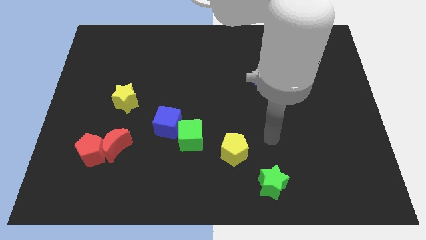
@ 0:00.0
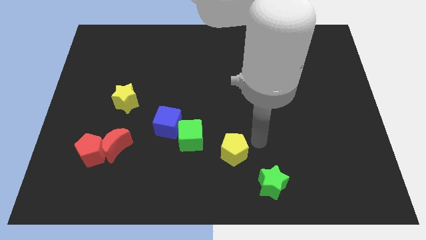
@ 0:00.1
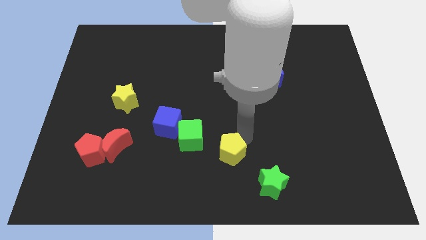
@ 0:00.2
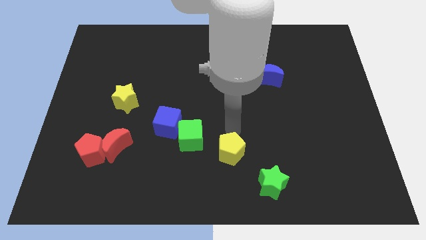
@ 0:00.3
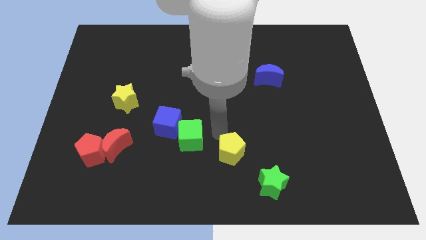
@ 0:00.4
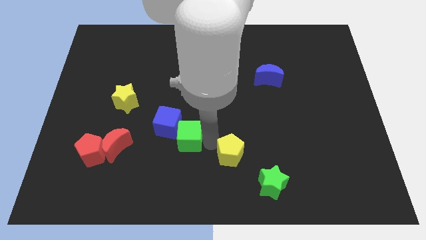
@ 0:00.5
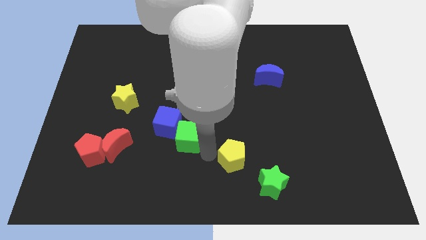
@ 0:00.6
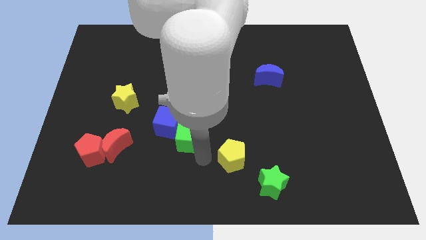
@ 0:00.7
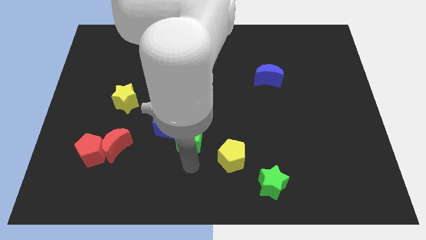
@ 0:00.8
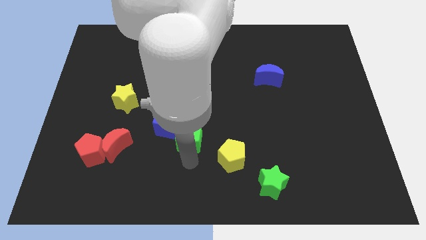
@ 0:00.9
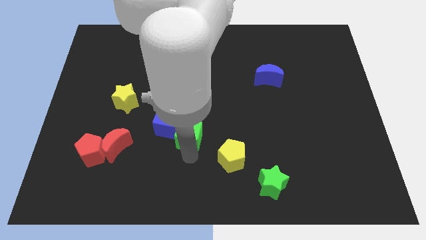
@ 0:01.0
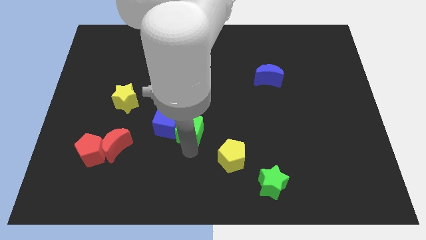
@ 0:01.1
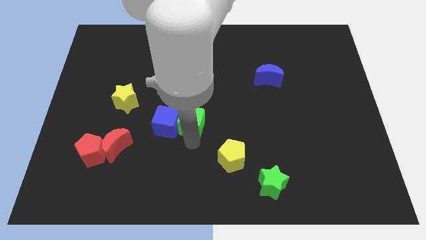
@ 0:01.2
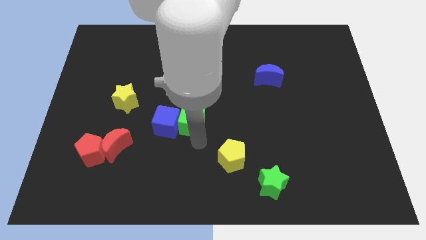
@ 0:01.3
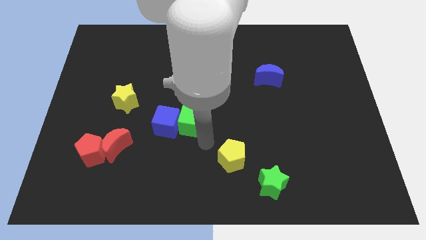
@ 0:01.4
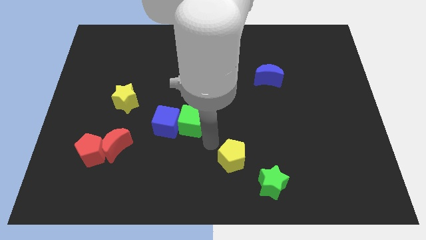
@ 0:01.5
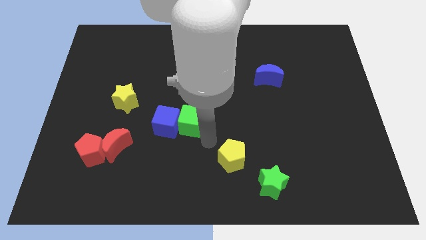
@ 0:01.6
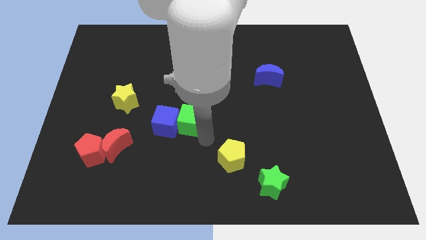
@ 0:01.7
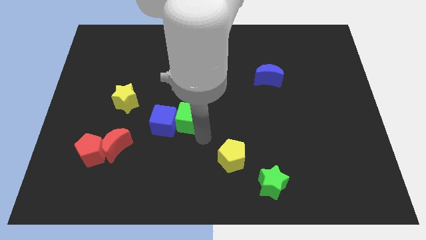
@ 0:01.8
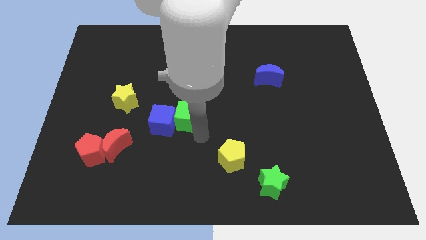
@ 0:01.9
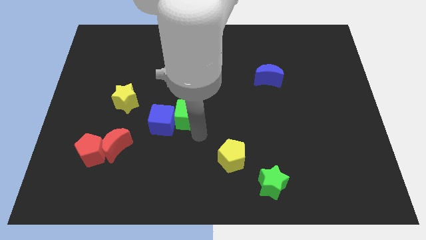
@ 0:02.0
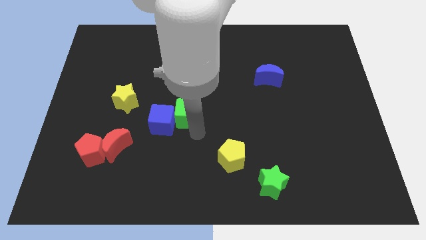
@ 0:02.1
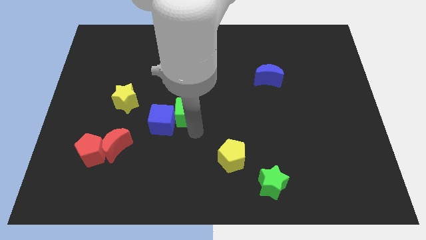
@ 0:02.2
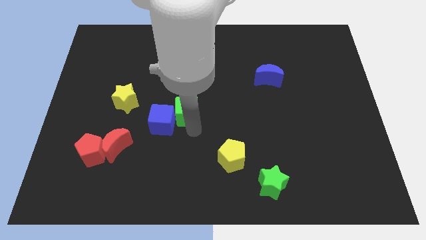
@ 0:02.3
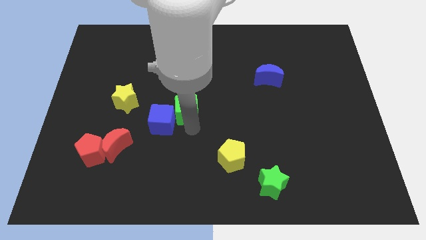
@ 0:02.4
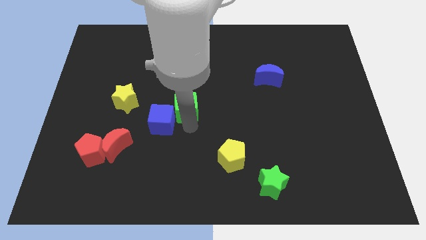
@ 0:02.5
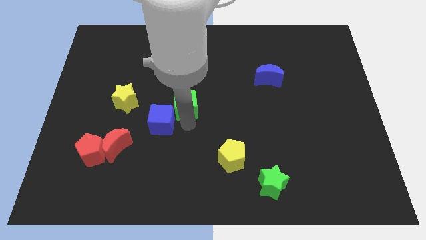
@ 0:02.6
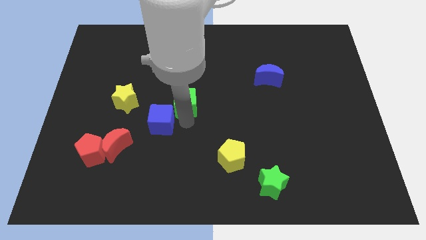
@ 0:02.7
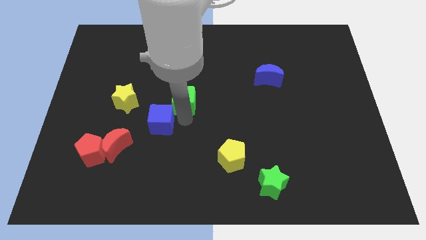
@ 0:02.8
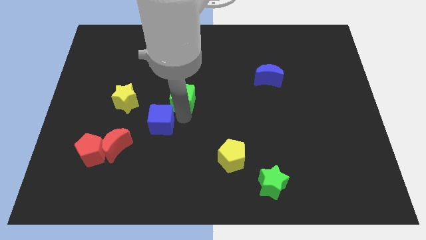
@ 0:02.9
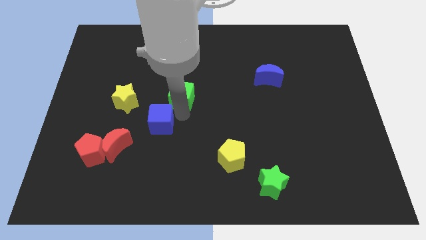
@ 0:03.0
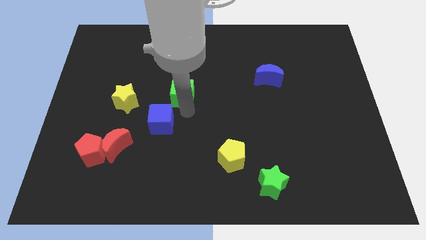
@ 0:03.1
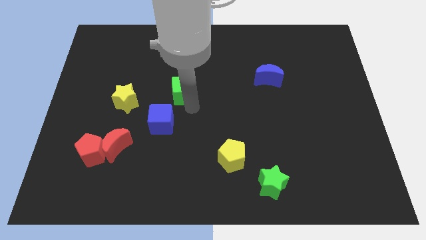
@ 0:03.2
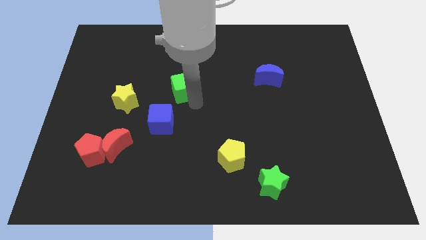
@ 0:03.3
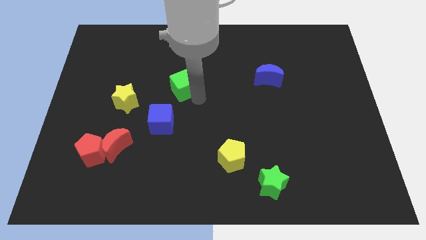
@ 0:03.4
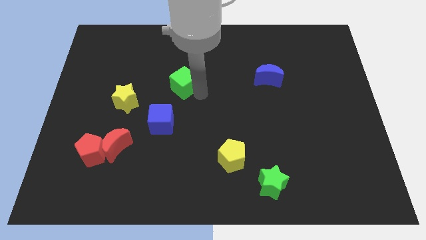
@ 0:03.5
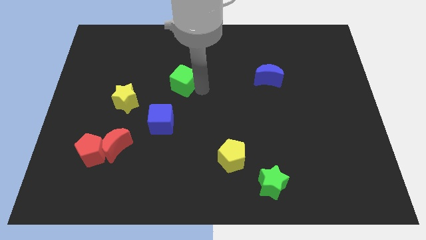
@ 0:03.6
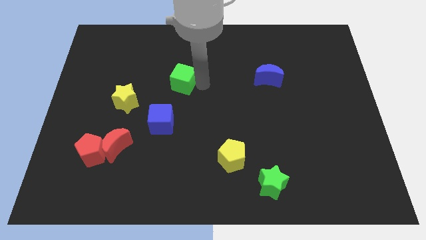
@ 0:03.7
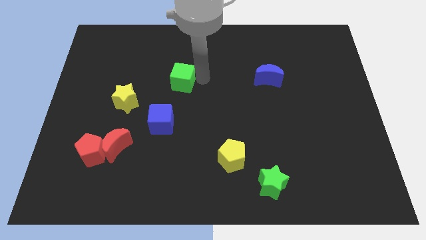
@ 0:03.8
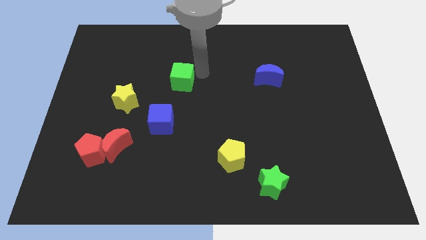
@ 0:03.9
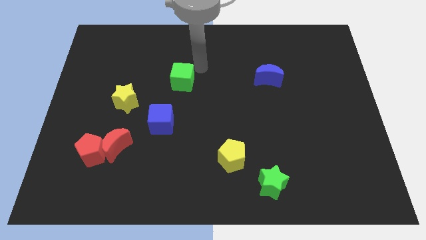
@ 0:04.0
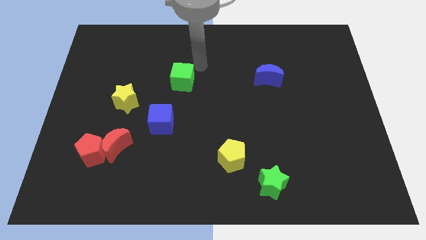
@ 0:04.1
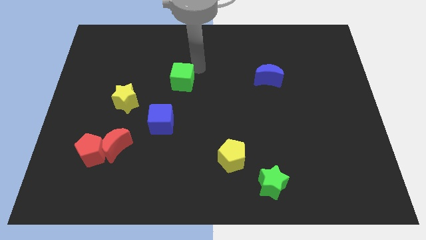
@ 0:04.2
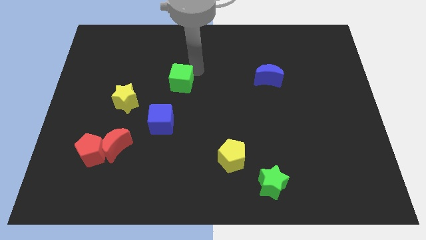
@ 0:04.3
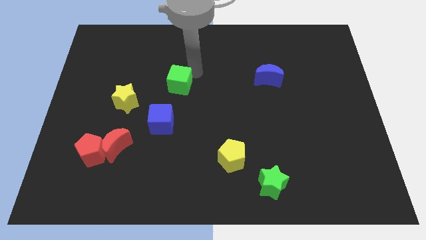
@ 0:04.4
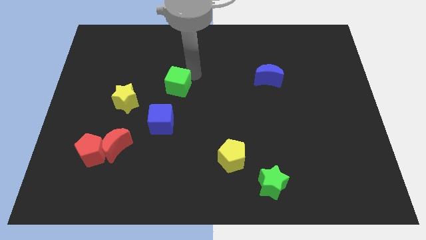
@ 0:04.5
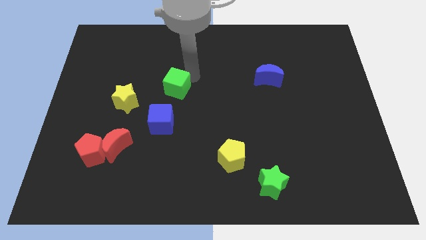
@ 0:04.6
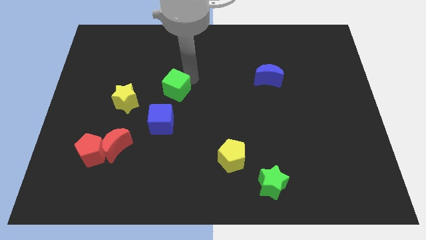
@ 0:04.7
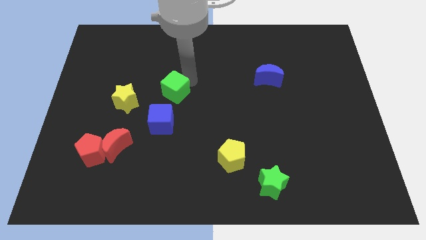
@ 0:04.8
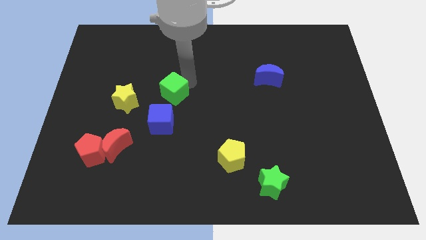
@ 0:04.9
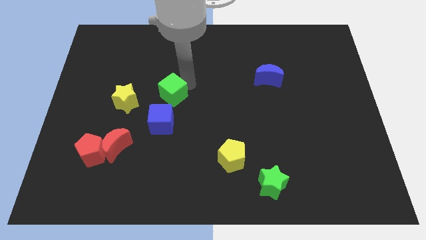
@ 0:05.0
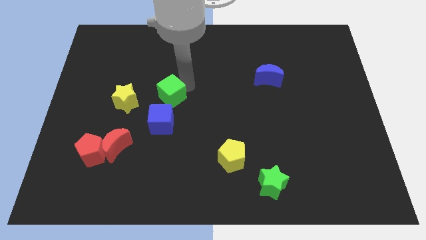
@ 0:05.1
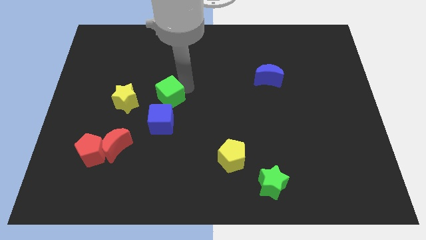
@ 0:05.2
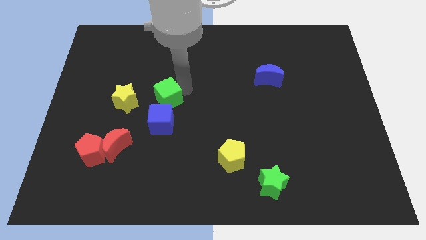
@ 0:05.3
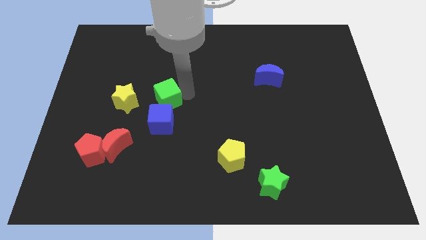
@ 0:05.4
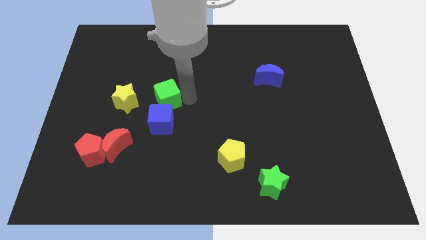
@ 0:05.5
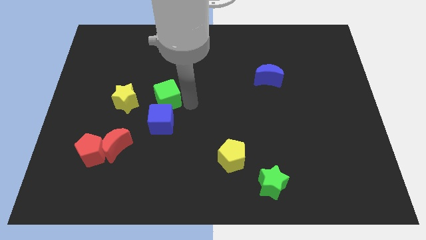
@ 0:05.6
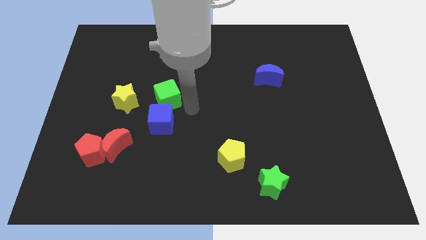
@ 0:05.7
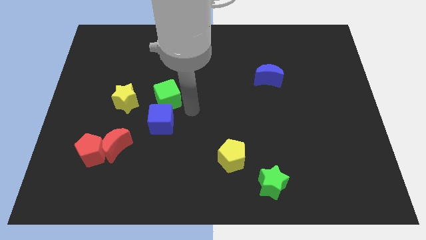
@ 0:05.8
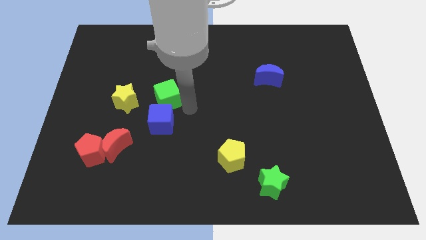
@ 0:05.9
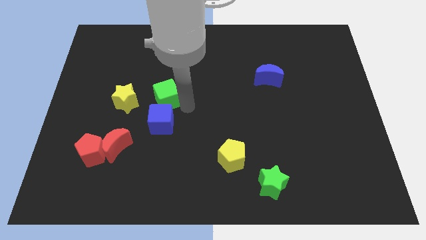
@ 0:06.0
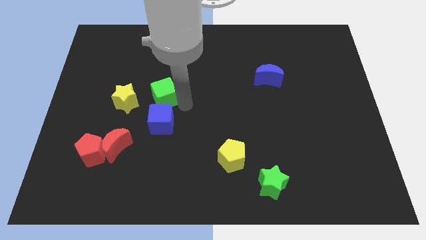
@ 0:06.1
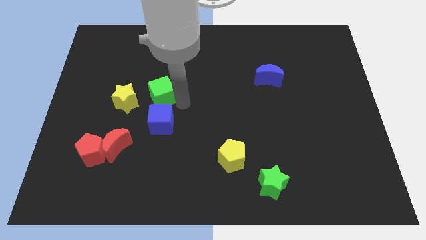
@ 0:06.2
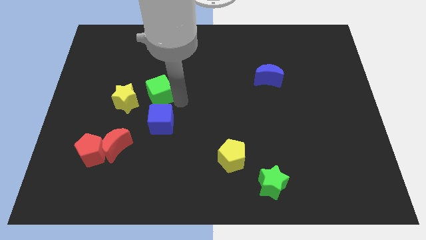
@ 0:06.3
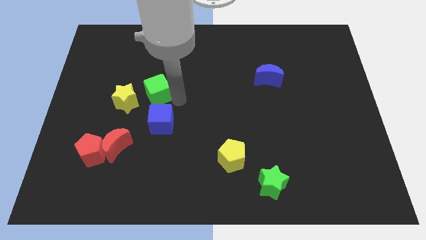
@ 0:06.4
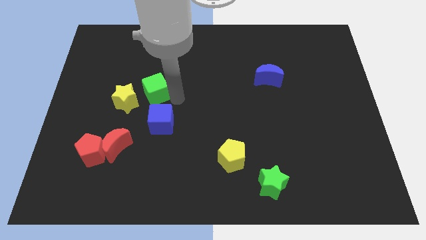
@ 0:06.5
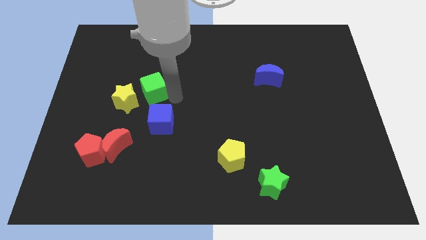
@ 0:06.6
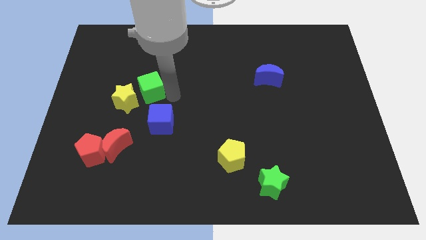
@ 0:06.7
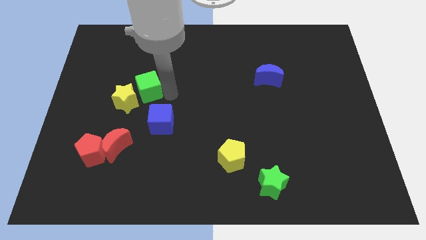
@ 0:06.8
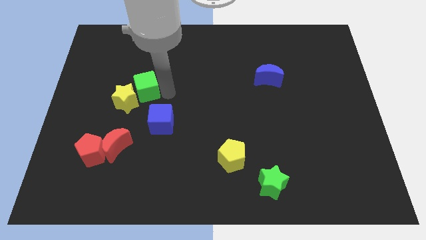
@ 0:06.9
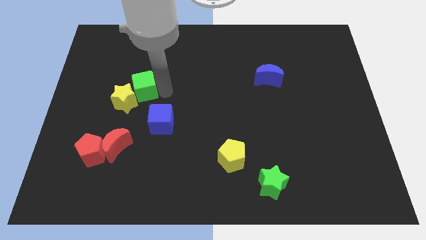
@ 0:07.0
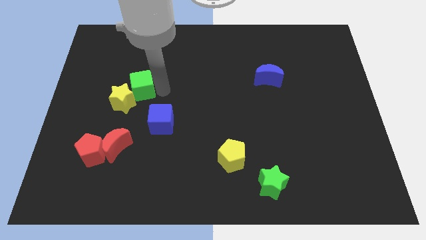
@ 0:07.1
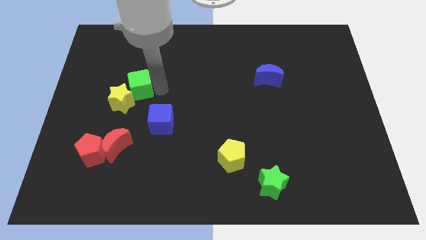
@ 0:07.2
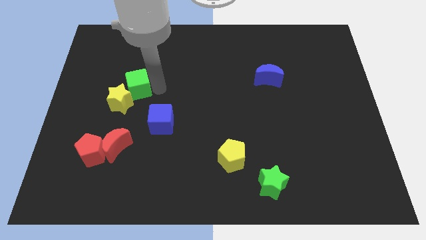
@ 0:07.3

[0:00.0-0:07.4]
push the green cube upwards and then to the left

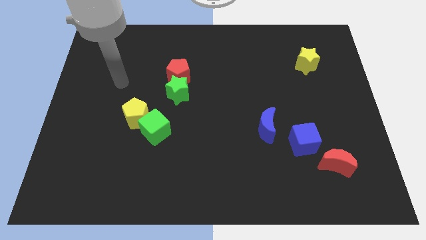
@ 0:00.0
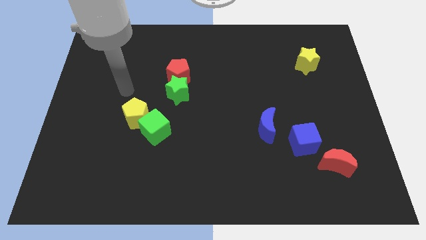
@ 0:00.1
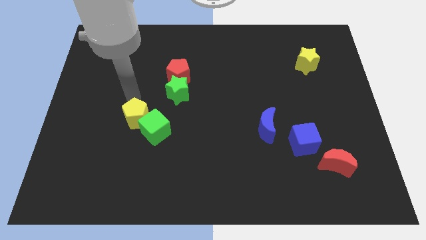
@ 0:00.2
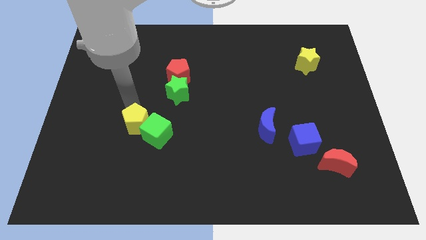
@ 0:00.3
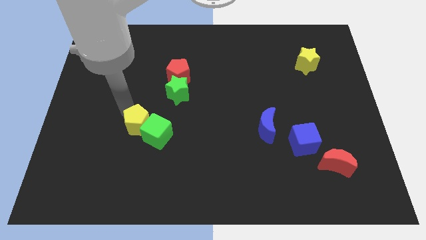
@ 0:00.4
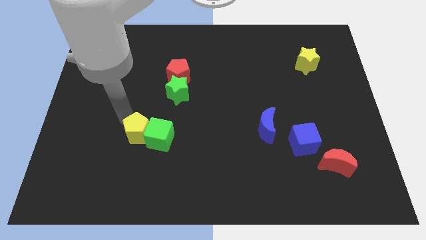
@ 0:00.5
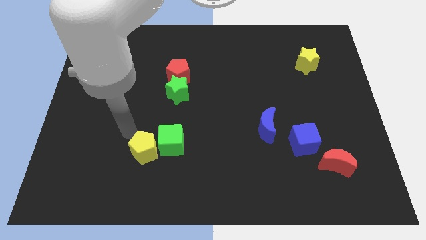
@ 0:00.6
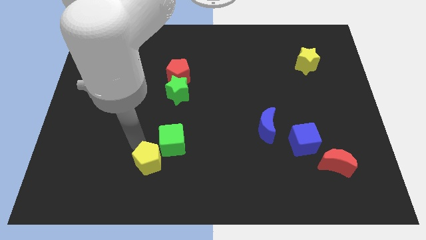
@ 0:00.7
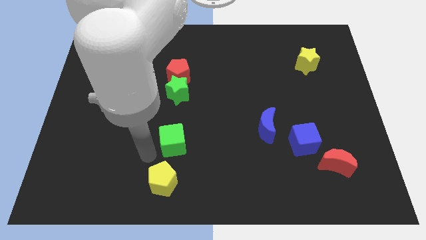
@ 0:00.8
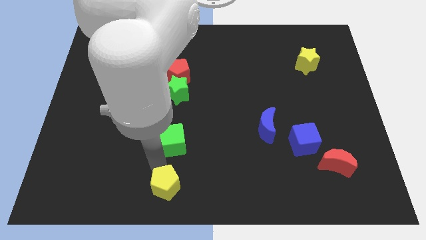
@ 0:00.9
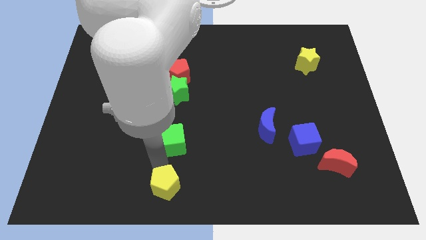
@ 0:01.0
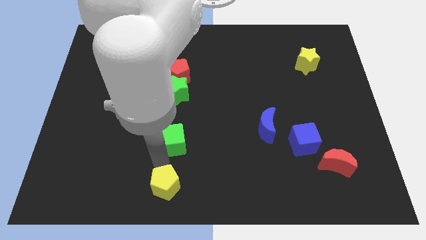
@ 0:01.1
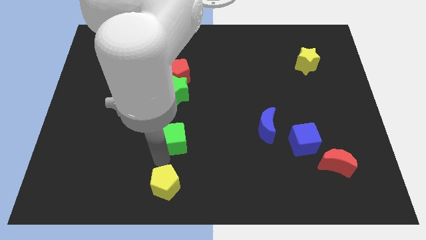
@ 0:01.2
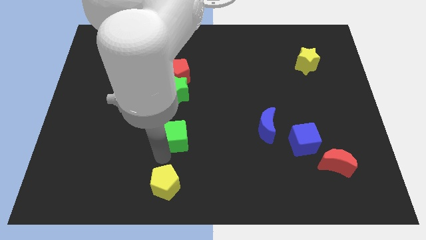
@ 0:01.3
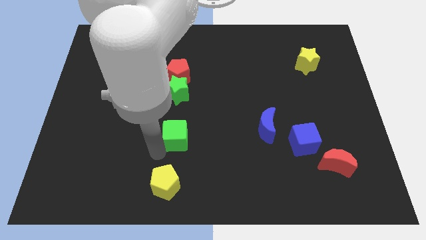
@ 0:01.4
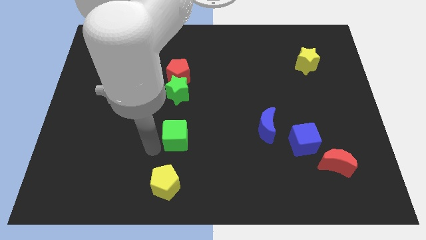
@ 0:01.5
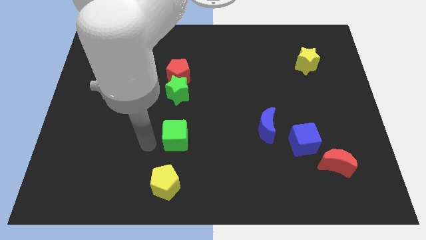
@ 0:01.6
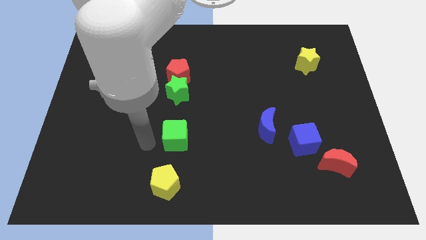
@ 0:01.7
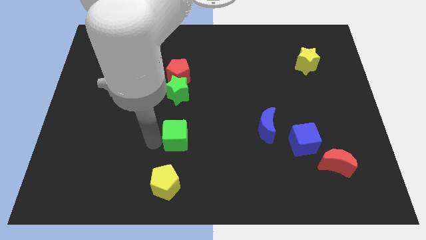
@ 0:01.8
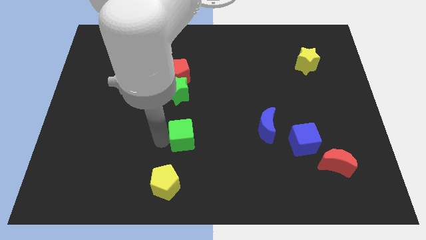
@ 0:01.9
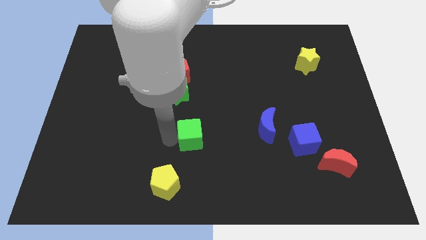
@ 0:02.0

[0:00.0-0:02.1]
slide the green cube slightly right
